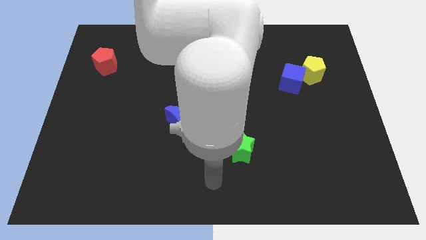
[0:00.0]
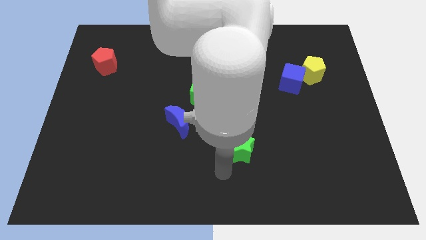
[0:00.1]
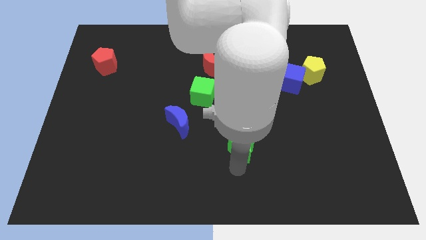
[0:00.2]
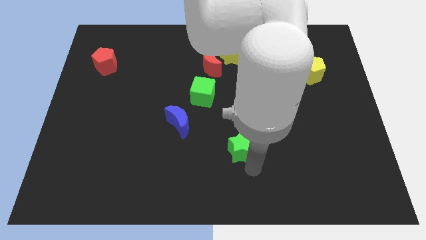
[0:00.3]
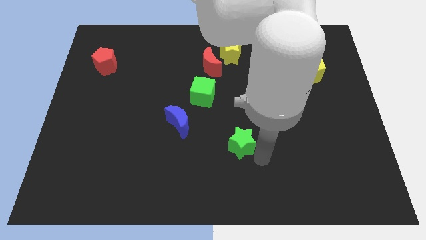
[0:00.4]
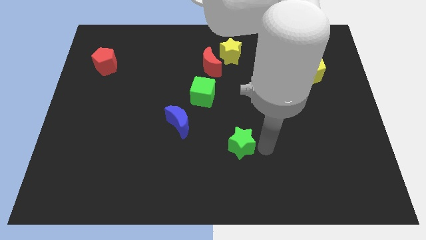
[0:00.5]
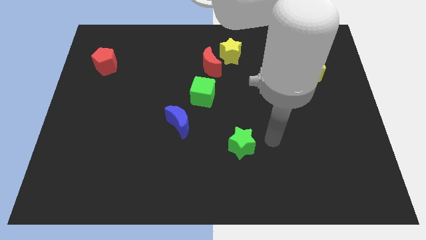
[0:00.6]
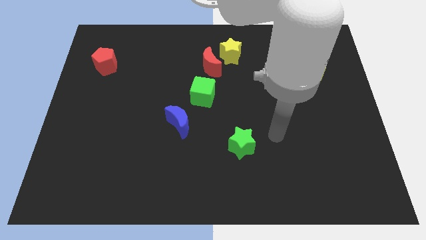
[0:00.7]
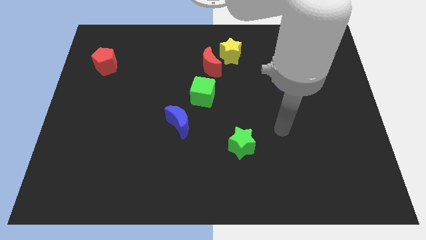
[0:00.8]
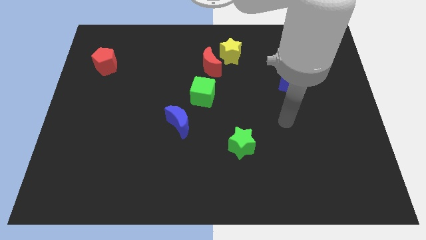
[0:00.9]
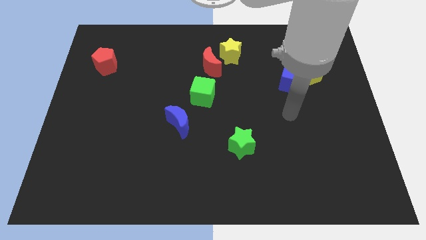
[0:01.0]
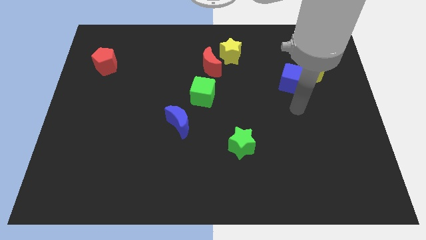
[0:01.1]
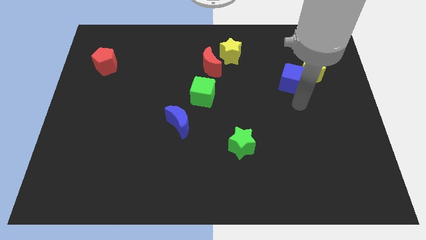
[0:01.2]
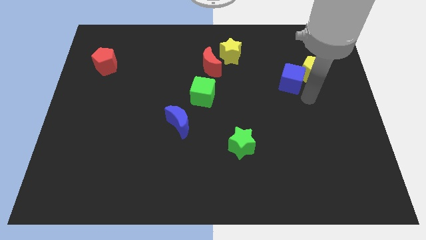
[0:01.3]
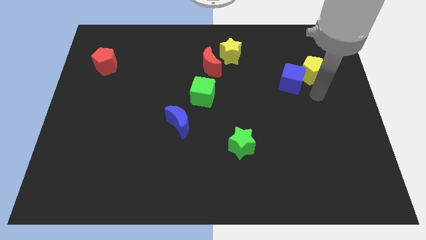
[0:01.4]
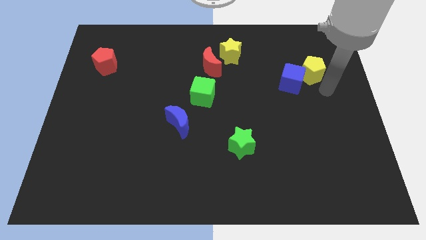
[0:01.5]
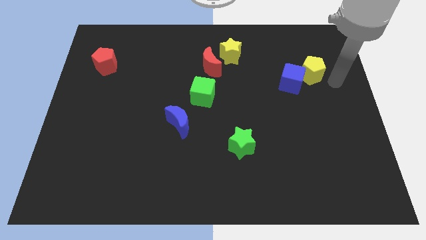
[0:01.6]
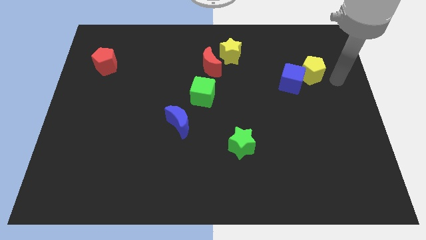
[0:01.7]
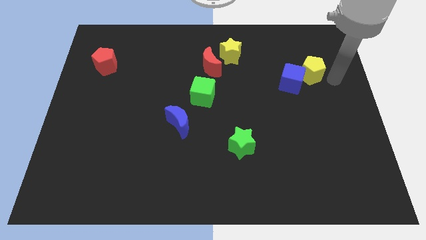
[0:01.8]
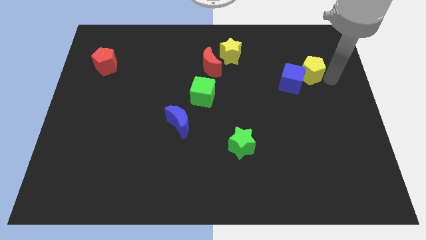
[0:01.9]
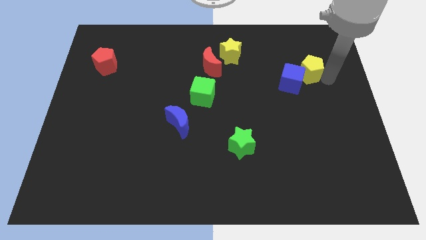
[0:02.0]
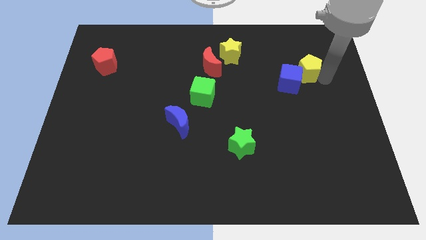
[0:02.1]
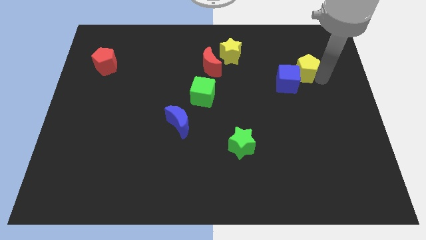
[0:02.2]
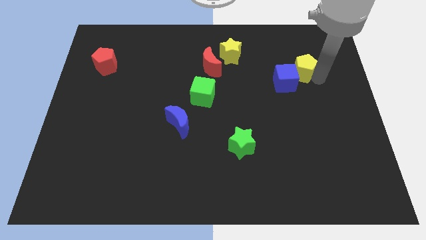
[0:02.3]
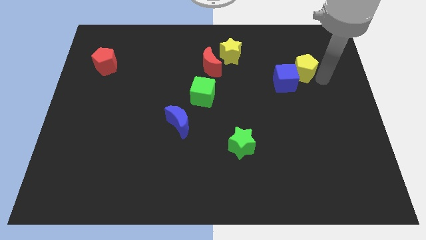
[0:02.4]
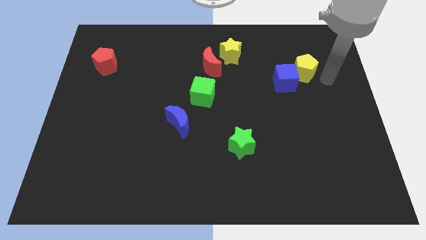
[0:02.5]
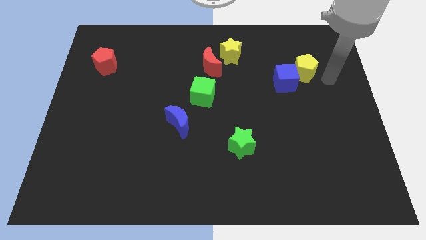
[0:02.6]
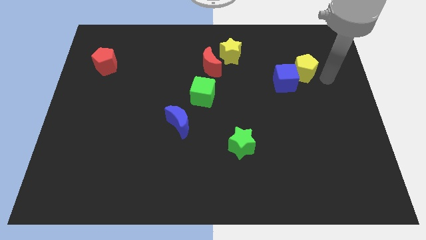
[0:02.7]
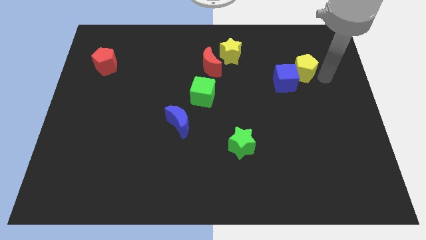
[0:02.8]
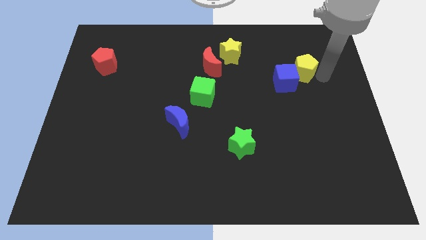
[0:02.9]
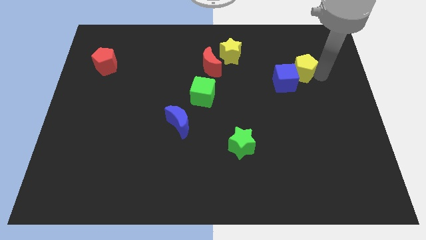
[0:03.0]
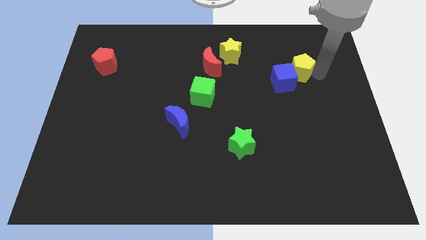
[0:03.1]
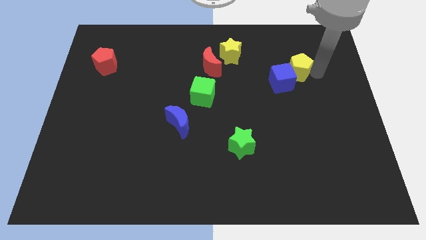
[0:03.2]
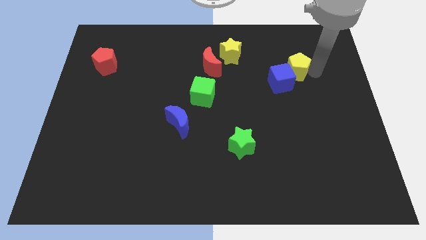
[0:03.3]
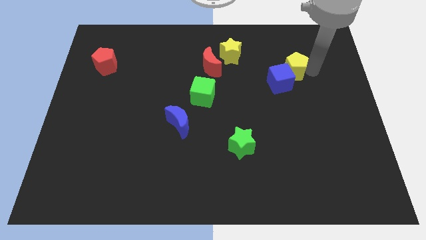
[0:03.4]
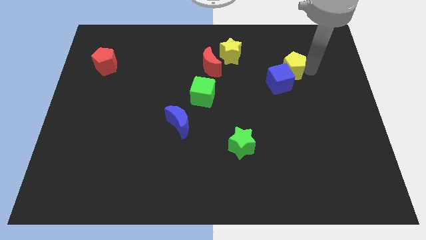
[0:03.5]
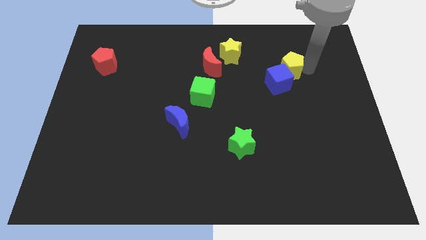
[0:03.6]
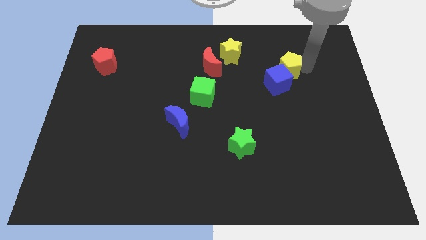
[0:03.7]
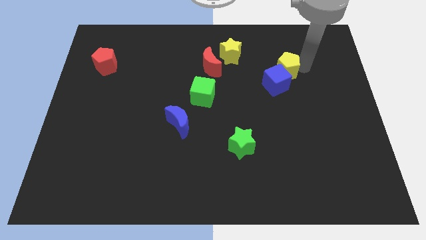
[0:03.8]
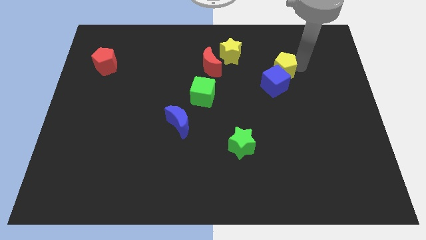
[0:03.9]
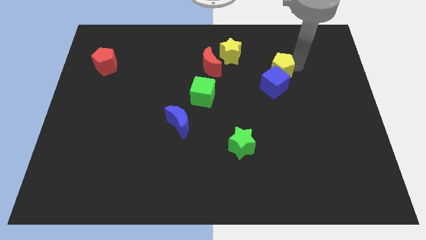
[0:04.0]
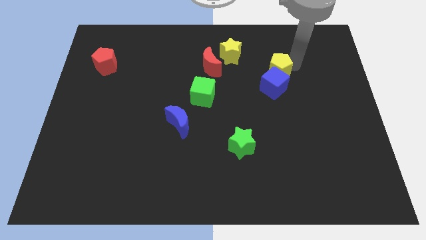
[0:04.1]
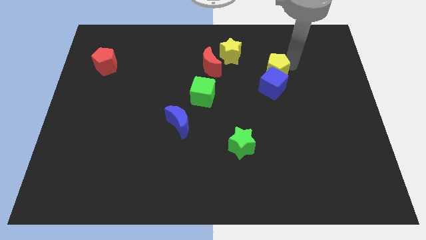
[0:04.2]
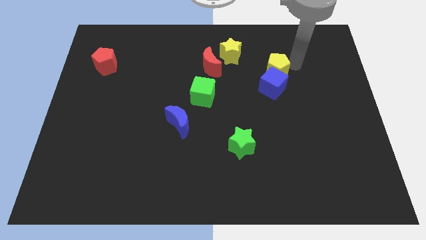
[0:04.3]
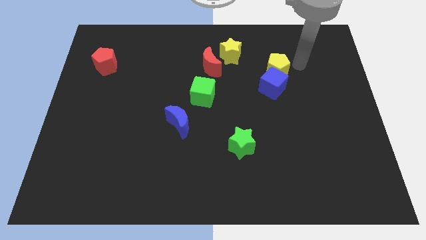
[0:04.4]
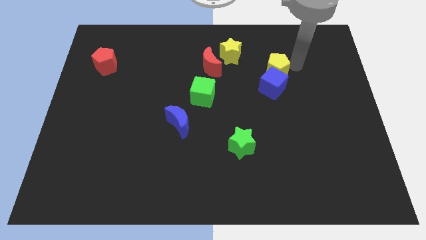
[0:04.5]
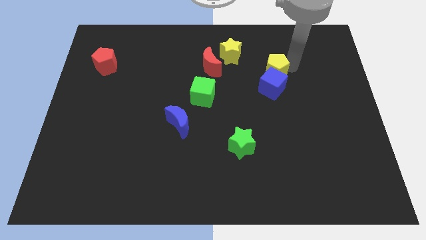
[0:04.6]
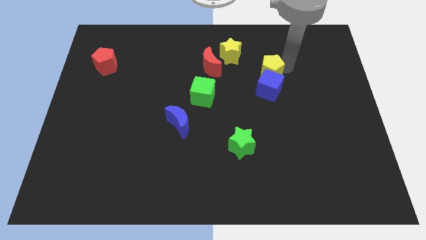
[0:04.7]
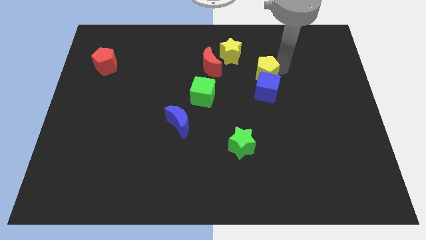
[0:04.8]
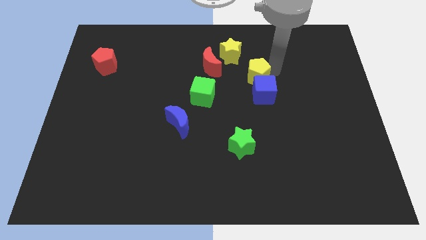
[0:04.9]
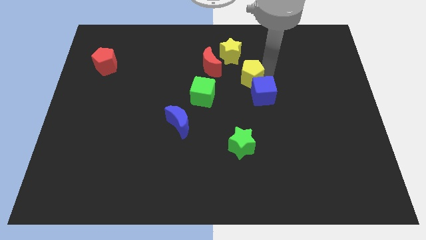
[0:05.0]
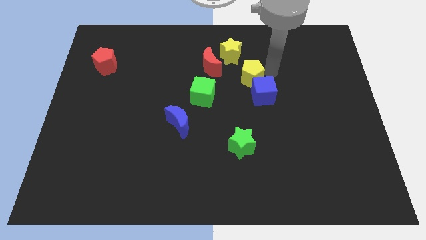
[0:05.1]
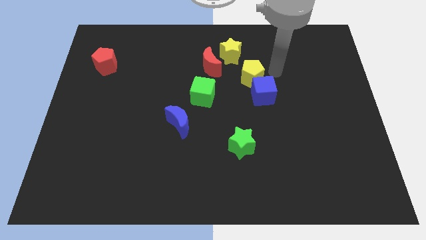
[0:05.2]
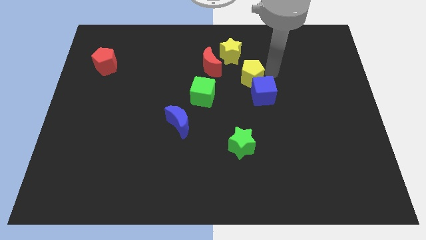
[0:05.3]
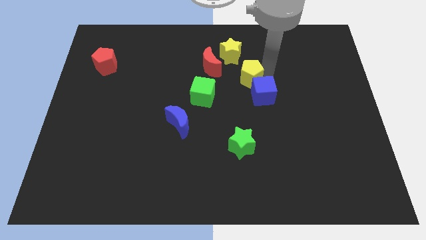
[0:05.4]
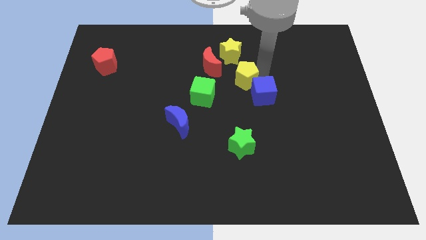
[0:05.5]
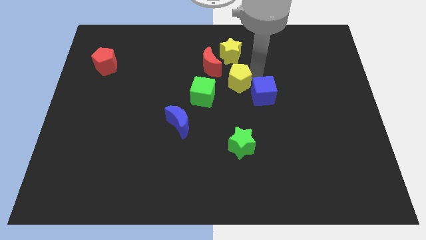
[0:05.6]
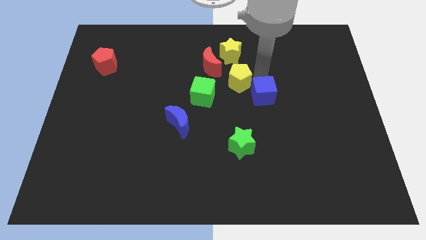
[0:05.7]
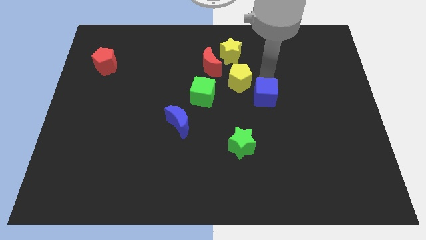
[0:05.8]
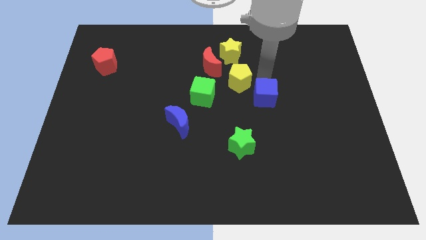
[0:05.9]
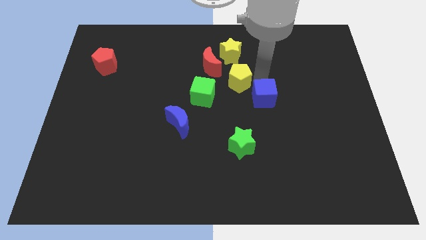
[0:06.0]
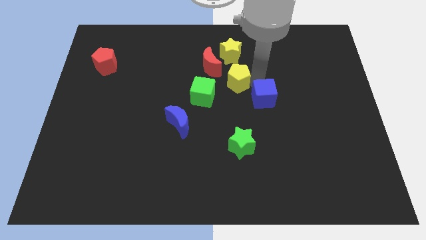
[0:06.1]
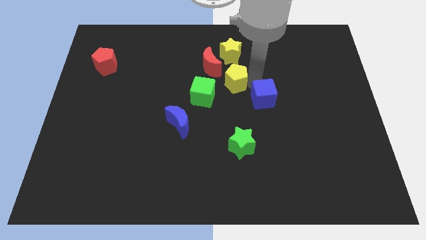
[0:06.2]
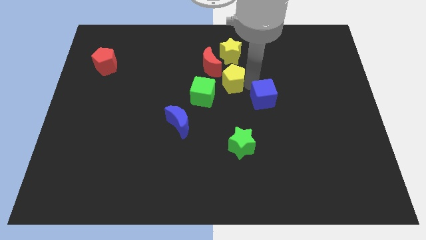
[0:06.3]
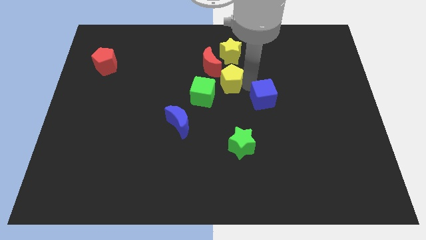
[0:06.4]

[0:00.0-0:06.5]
move the yellow pentagon to the left

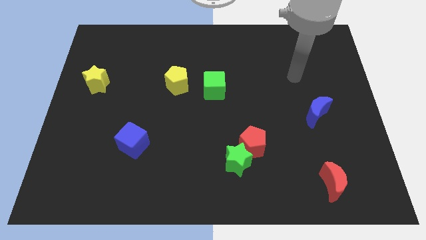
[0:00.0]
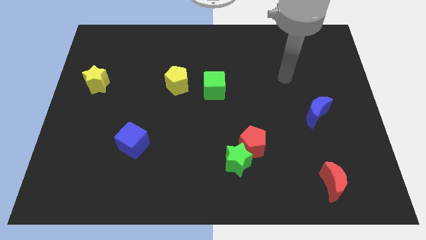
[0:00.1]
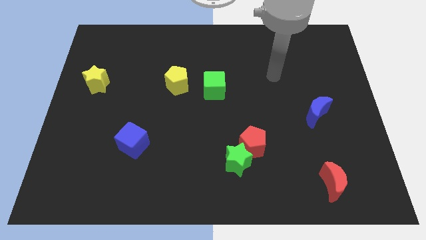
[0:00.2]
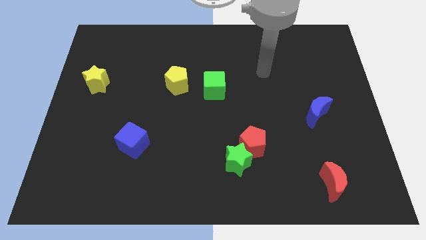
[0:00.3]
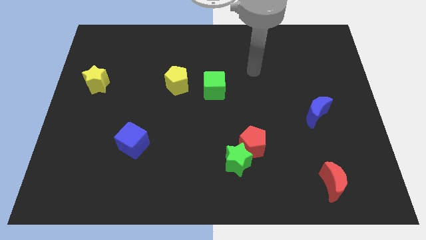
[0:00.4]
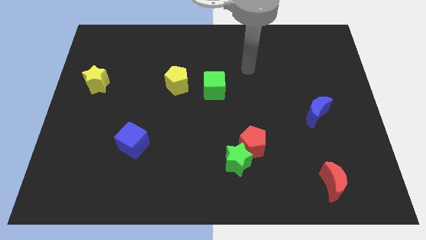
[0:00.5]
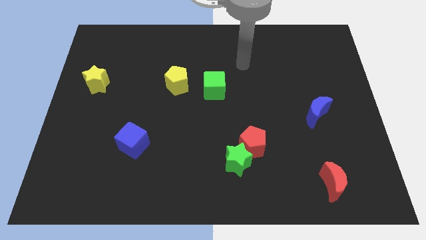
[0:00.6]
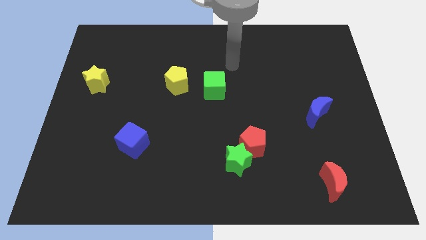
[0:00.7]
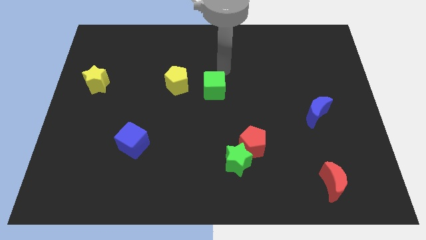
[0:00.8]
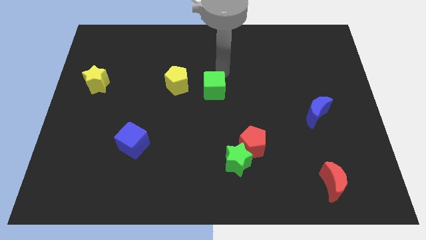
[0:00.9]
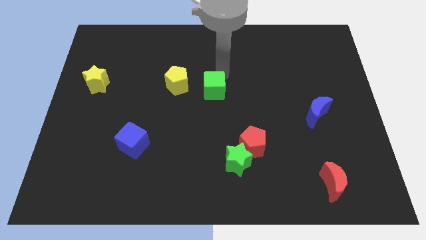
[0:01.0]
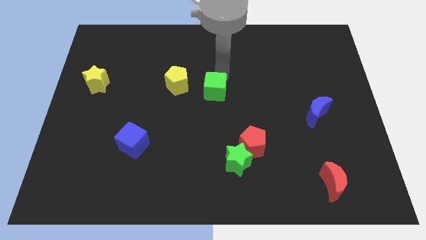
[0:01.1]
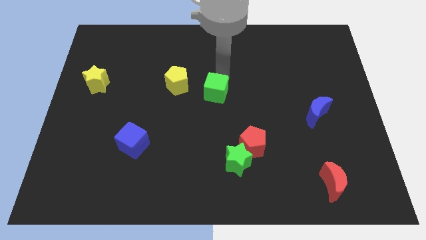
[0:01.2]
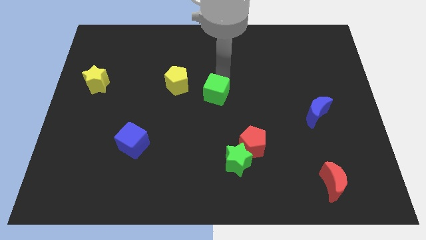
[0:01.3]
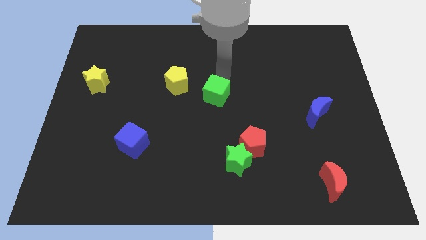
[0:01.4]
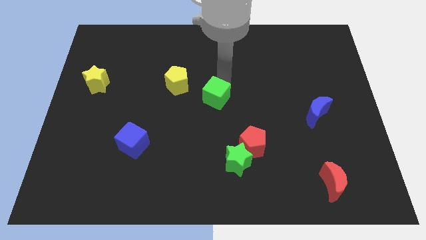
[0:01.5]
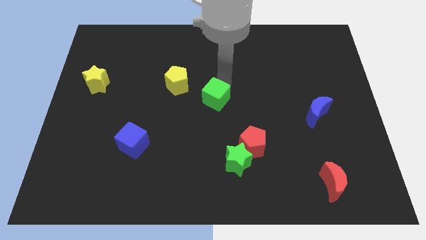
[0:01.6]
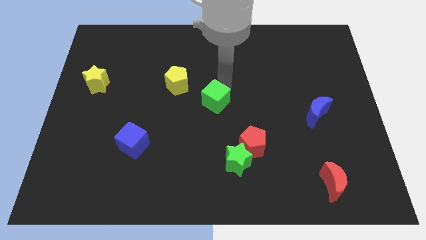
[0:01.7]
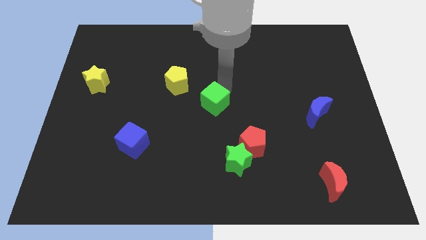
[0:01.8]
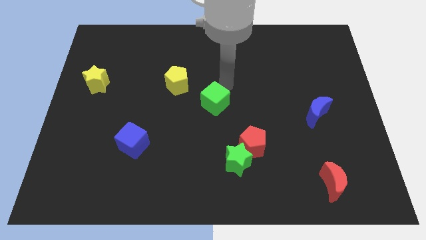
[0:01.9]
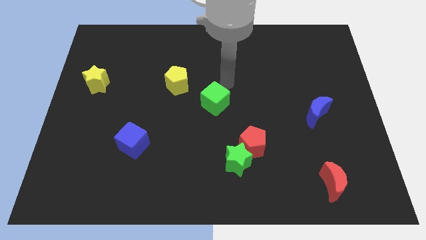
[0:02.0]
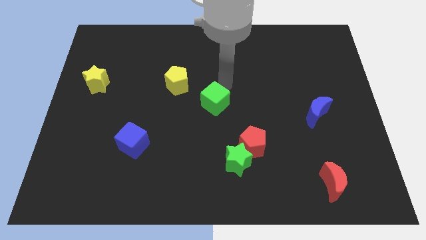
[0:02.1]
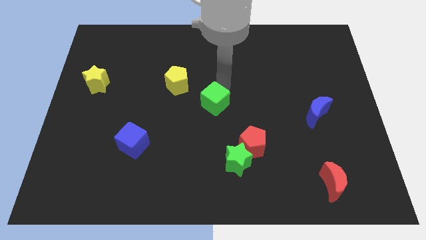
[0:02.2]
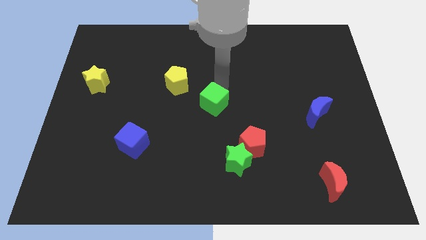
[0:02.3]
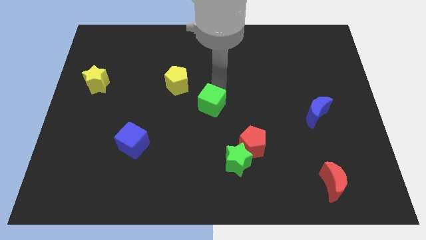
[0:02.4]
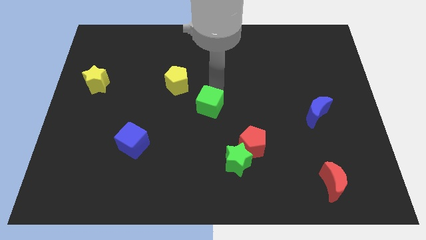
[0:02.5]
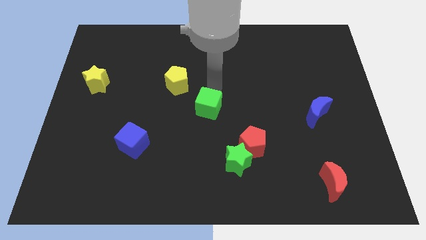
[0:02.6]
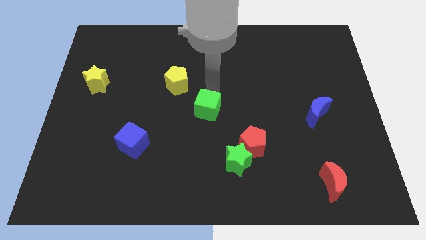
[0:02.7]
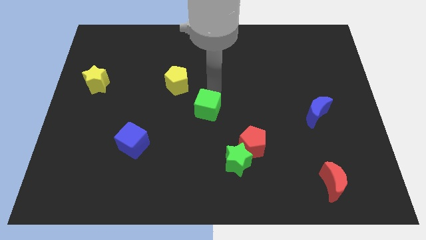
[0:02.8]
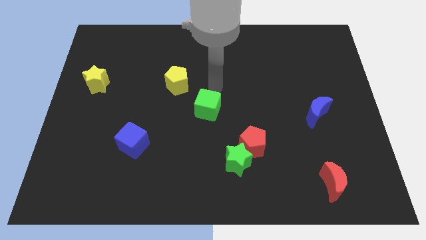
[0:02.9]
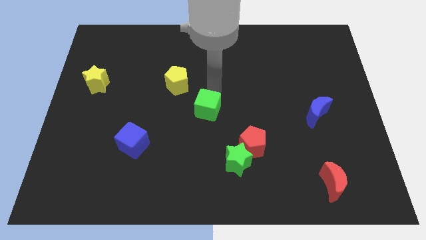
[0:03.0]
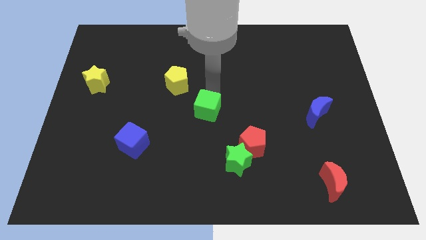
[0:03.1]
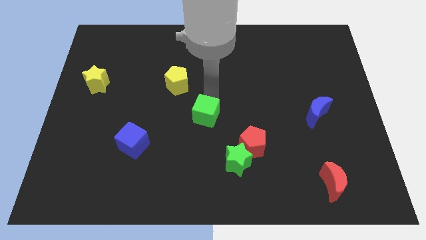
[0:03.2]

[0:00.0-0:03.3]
slightly push the green cube downwards
